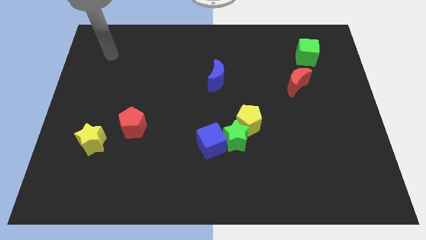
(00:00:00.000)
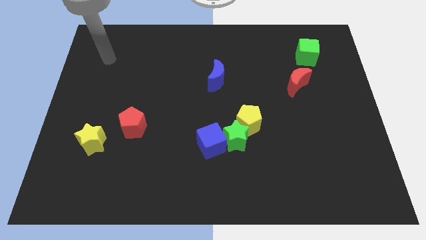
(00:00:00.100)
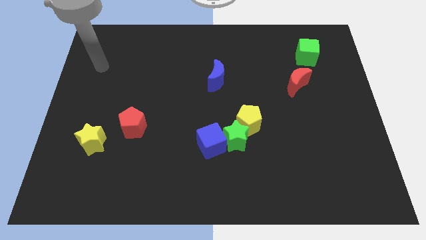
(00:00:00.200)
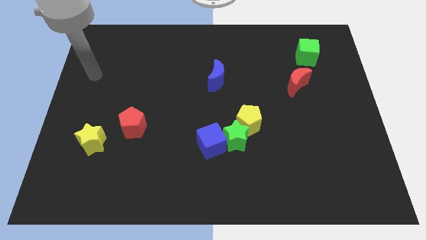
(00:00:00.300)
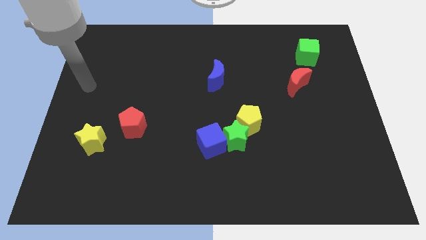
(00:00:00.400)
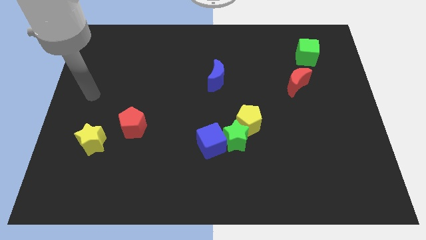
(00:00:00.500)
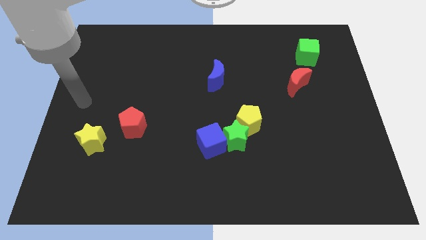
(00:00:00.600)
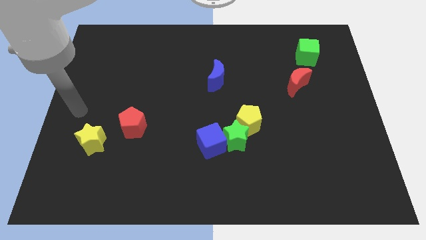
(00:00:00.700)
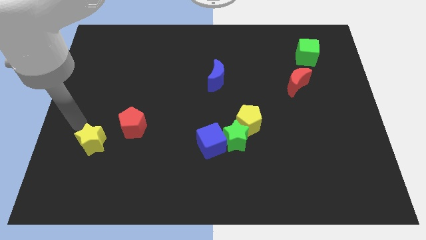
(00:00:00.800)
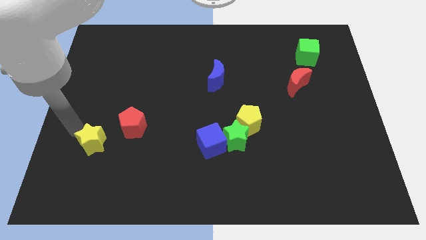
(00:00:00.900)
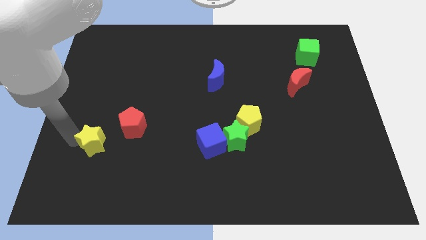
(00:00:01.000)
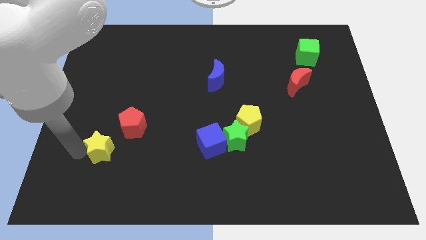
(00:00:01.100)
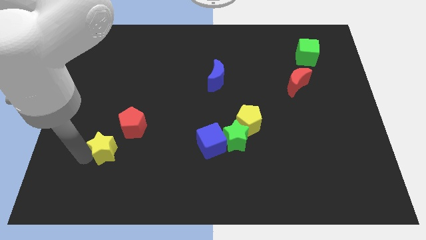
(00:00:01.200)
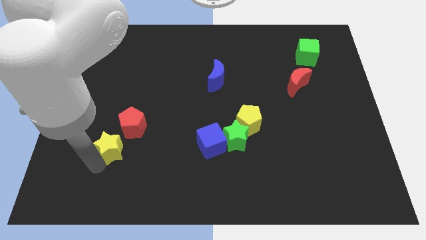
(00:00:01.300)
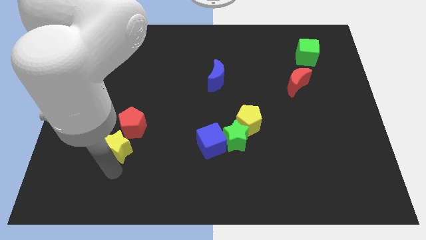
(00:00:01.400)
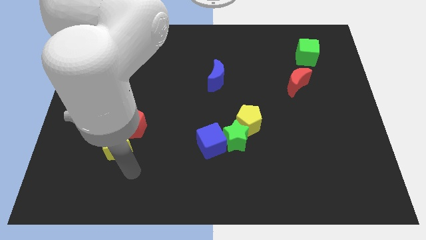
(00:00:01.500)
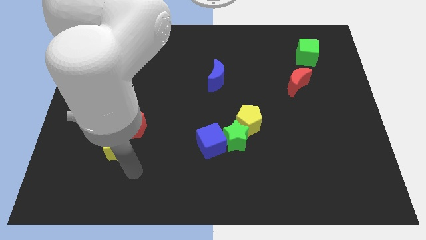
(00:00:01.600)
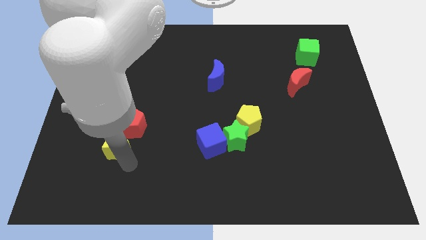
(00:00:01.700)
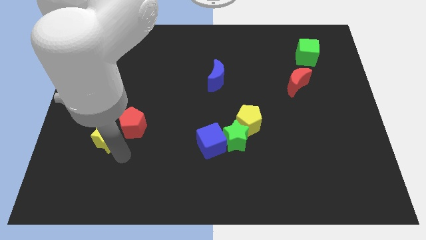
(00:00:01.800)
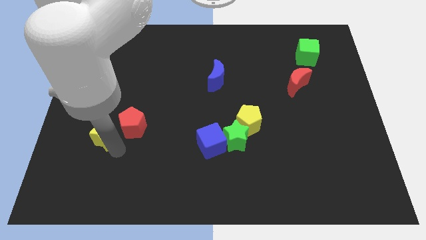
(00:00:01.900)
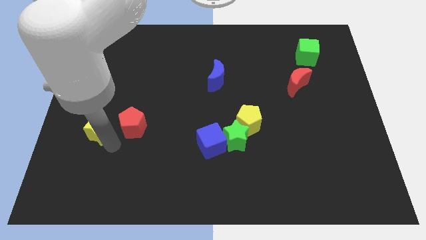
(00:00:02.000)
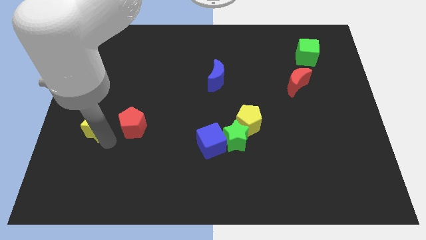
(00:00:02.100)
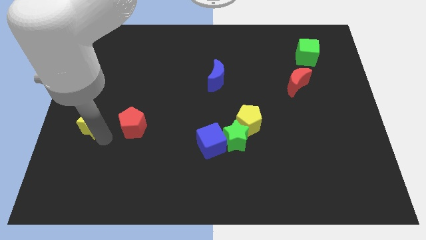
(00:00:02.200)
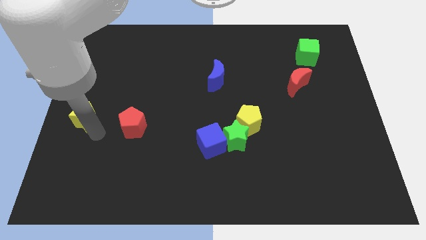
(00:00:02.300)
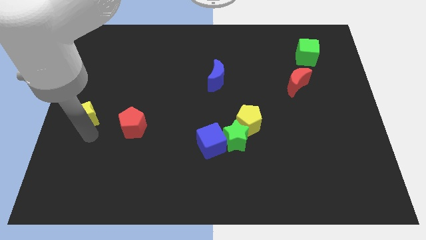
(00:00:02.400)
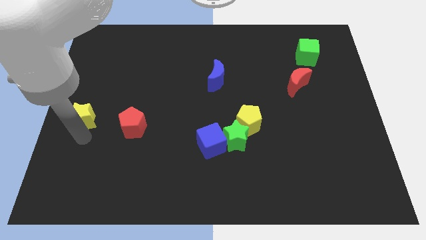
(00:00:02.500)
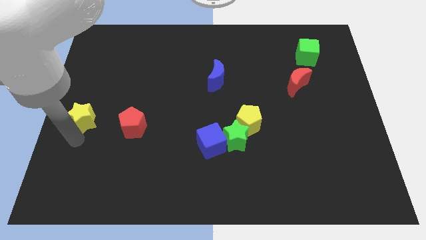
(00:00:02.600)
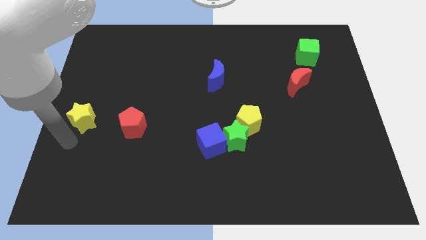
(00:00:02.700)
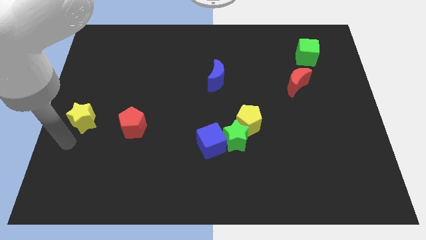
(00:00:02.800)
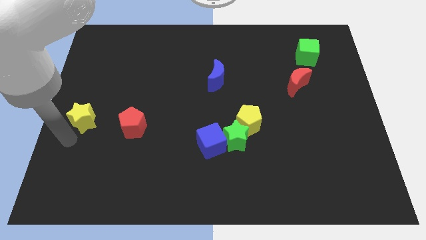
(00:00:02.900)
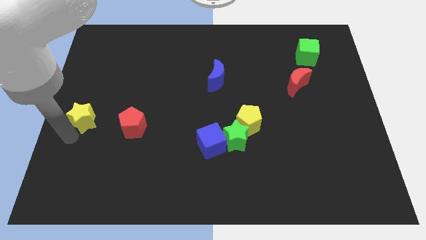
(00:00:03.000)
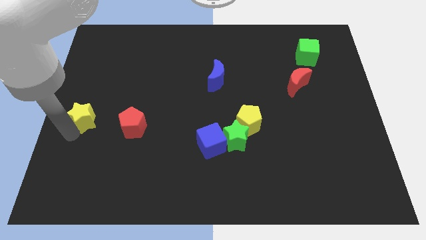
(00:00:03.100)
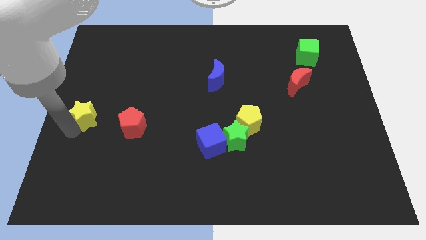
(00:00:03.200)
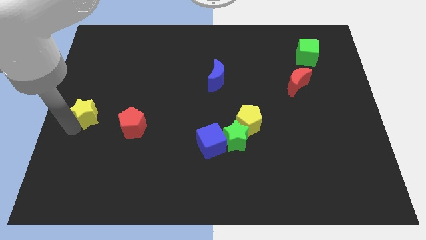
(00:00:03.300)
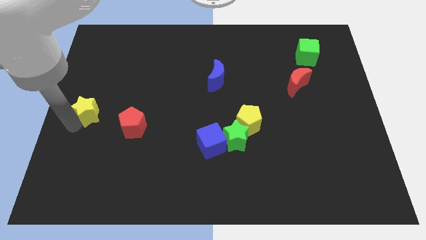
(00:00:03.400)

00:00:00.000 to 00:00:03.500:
slide the yellow star a bit upwards

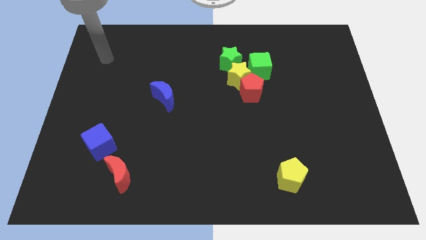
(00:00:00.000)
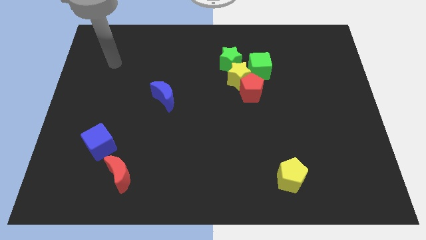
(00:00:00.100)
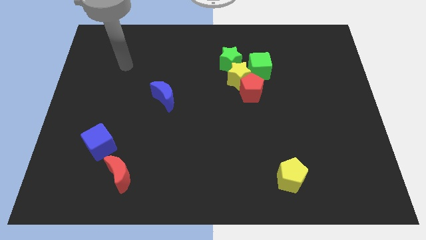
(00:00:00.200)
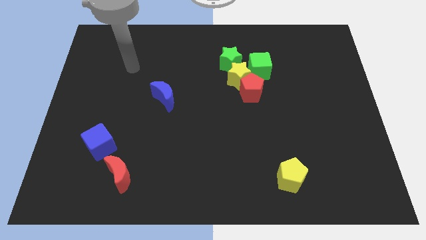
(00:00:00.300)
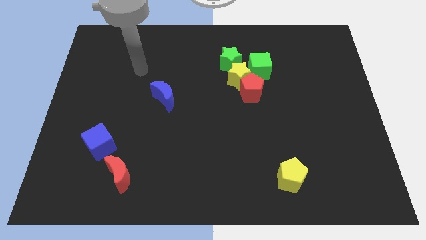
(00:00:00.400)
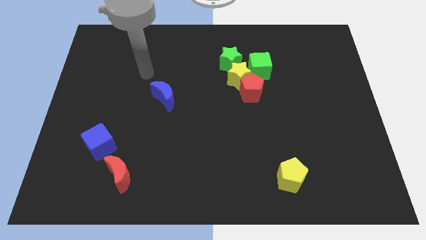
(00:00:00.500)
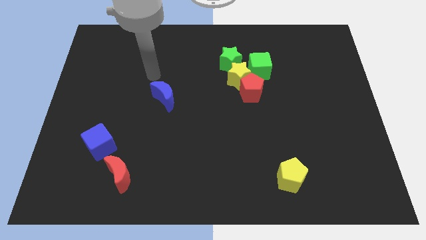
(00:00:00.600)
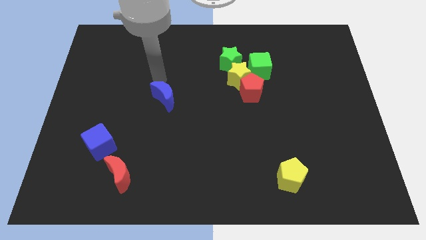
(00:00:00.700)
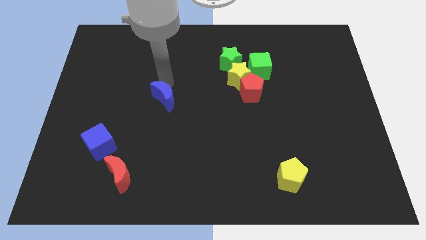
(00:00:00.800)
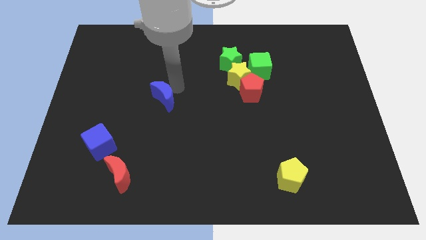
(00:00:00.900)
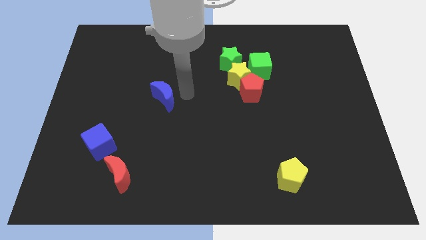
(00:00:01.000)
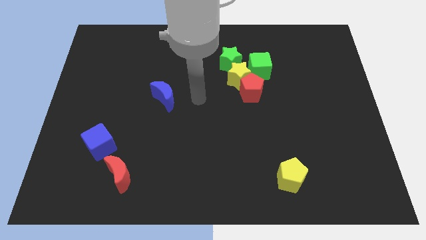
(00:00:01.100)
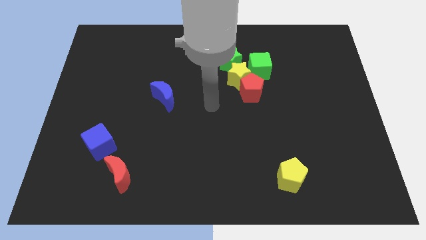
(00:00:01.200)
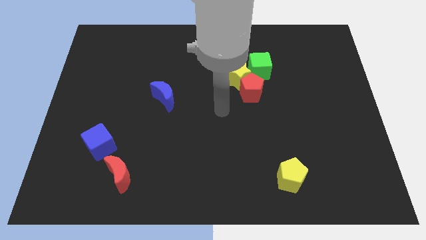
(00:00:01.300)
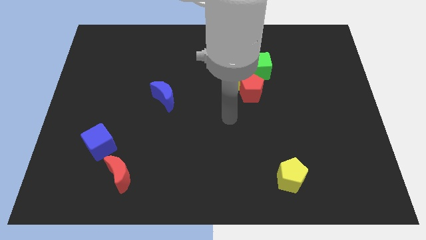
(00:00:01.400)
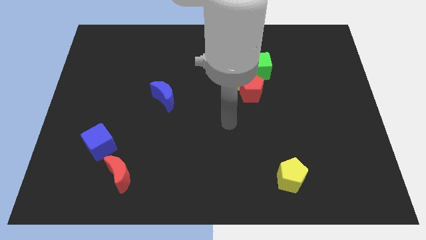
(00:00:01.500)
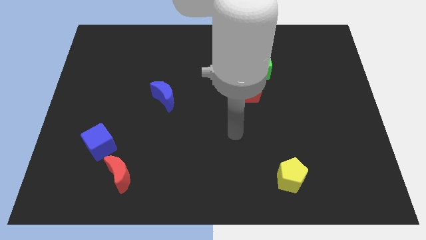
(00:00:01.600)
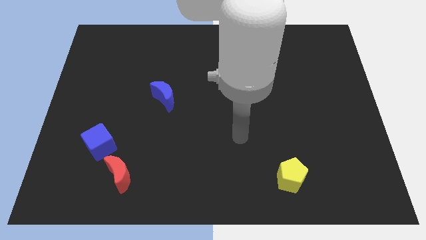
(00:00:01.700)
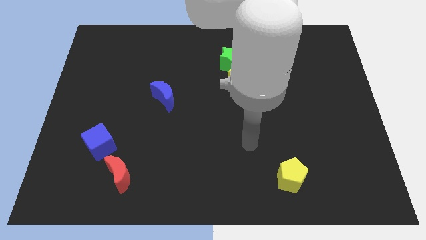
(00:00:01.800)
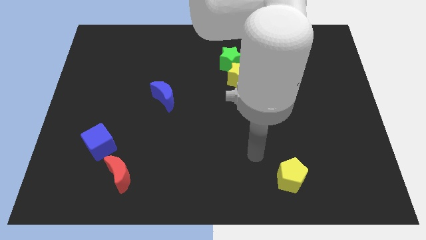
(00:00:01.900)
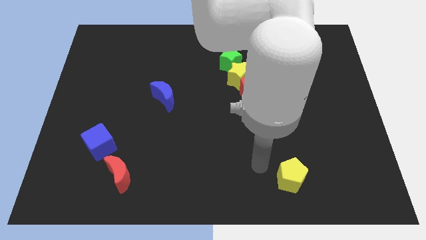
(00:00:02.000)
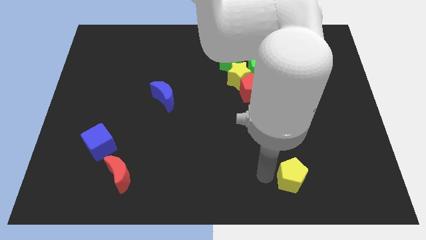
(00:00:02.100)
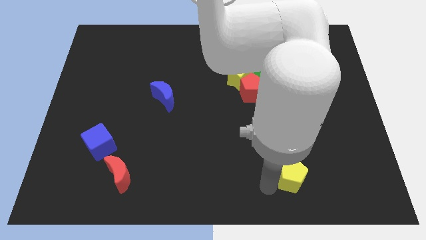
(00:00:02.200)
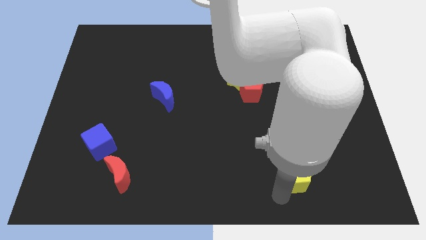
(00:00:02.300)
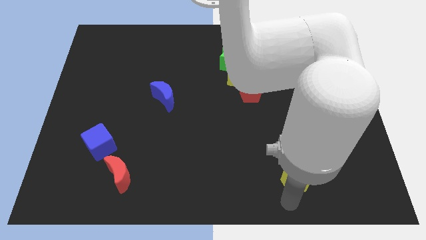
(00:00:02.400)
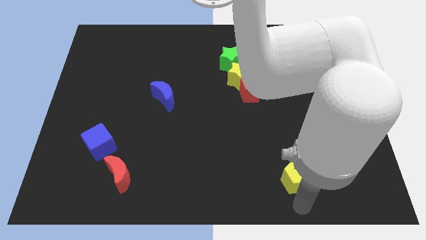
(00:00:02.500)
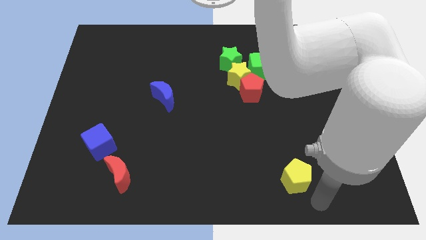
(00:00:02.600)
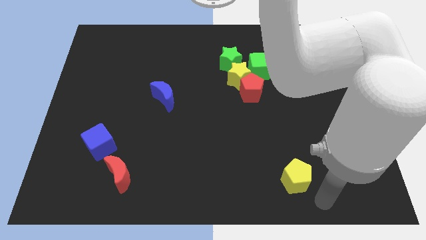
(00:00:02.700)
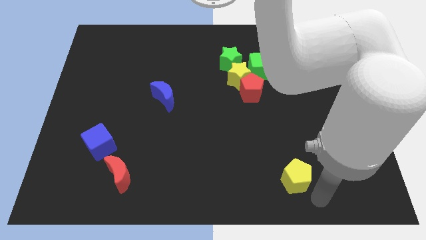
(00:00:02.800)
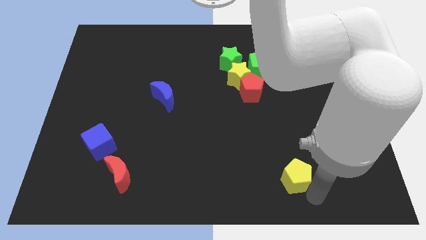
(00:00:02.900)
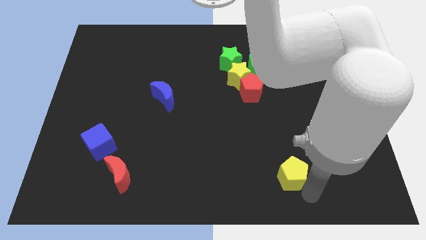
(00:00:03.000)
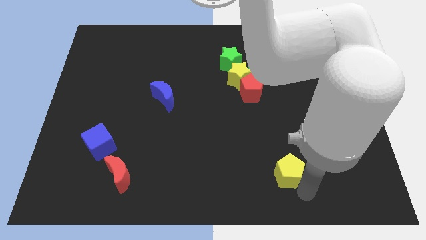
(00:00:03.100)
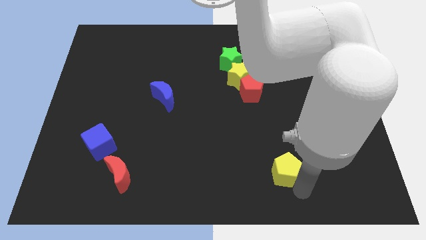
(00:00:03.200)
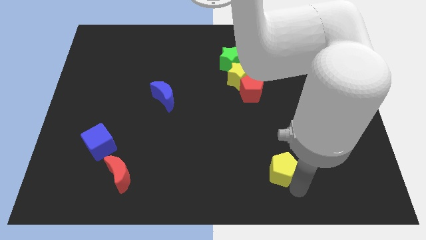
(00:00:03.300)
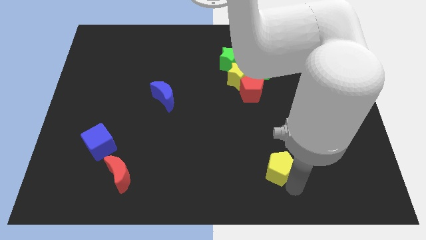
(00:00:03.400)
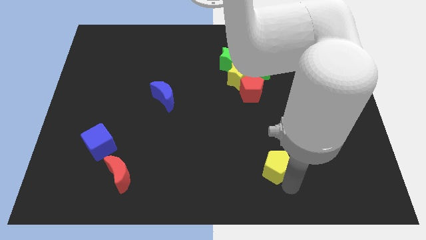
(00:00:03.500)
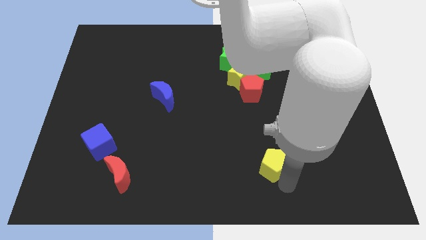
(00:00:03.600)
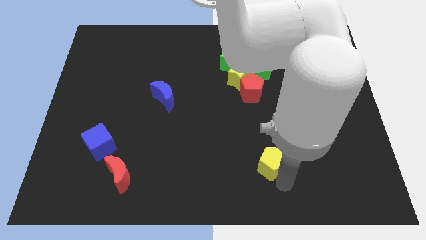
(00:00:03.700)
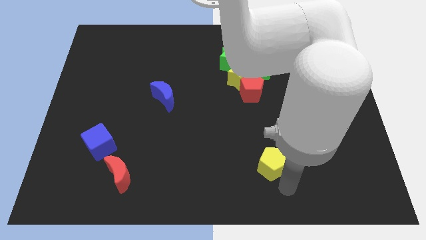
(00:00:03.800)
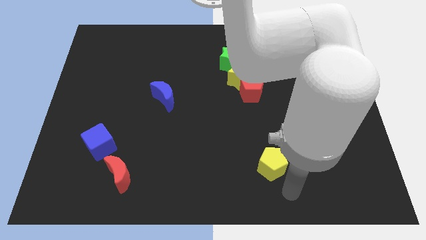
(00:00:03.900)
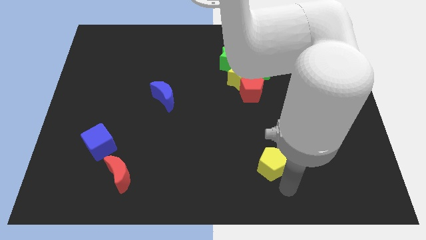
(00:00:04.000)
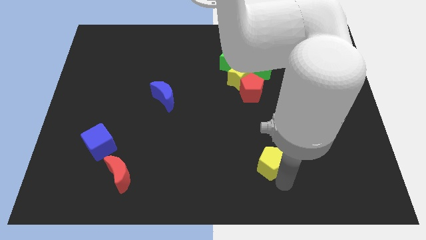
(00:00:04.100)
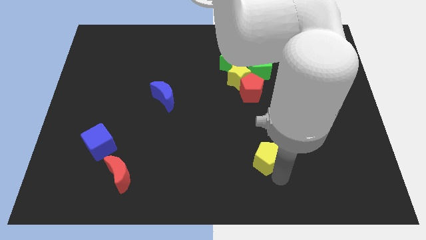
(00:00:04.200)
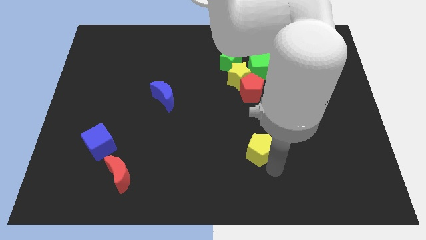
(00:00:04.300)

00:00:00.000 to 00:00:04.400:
push the yellow pentagon up and then to the left a little
